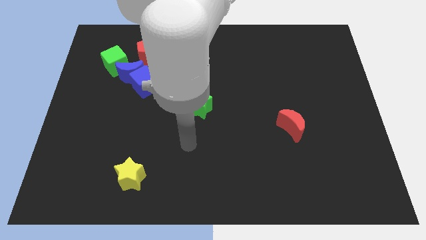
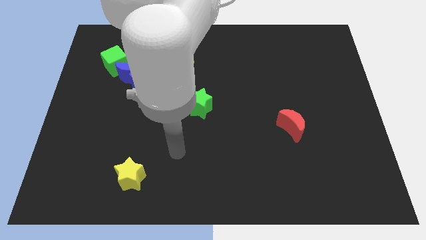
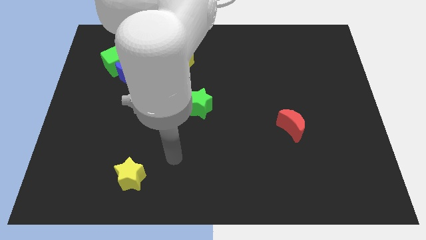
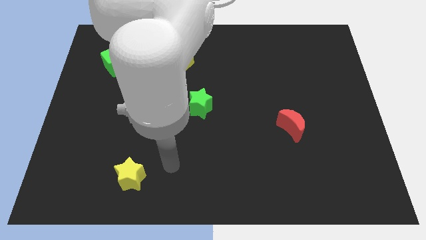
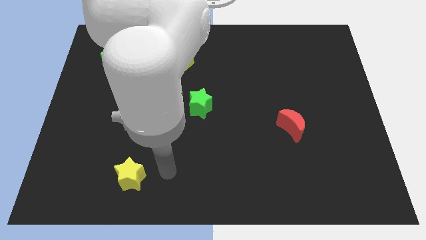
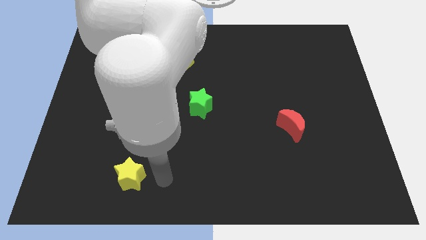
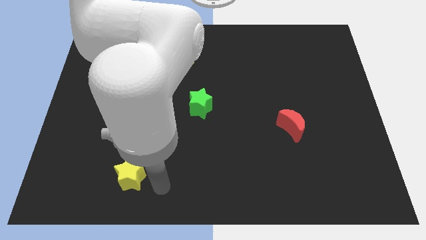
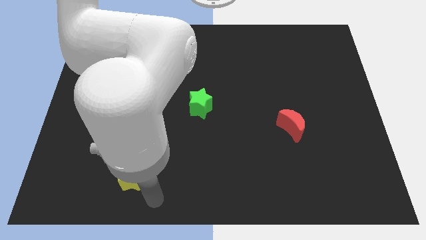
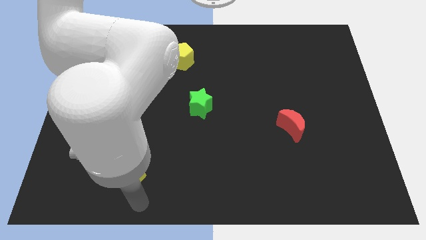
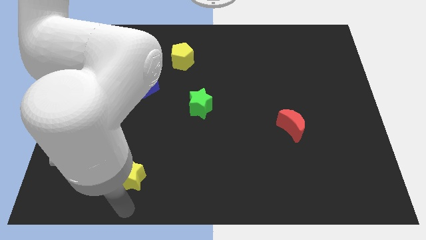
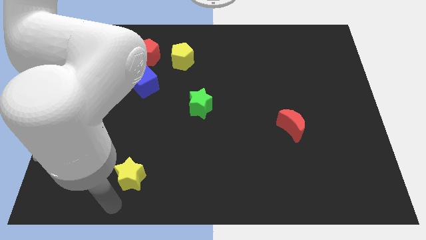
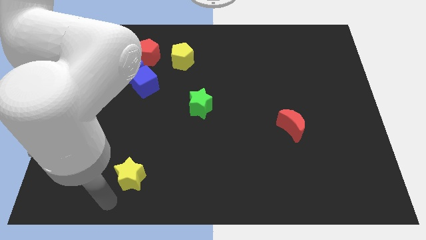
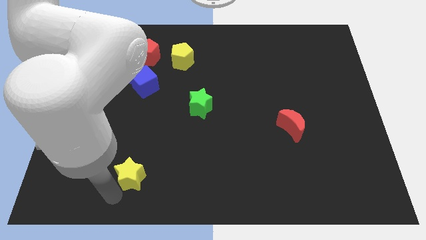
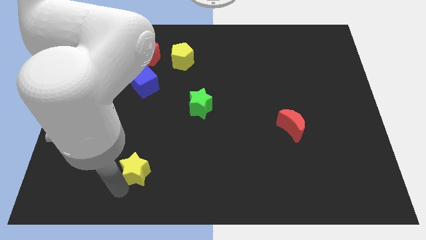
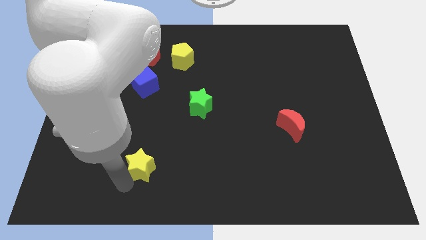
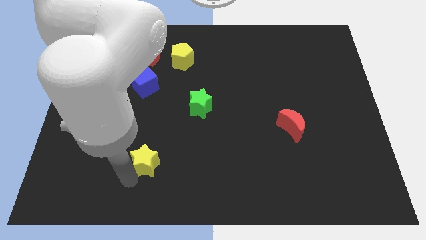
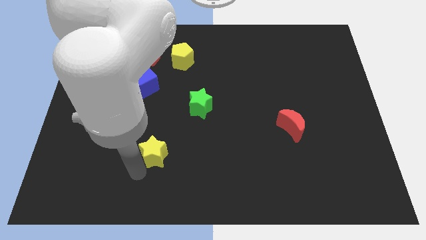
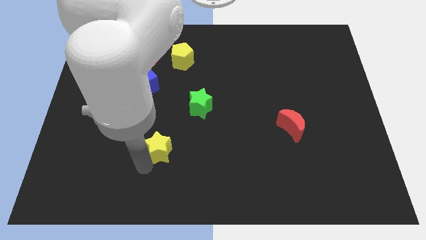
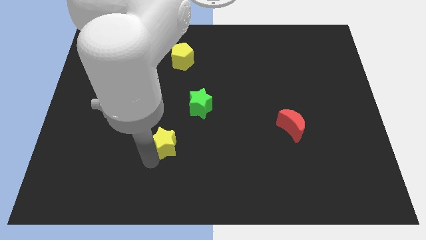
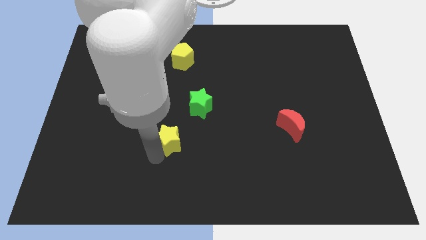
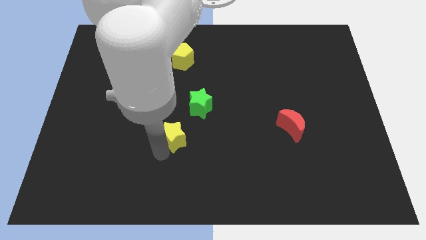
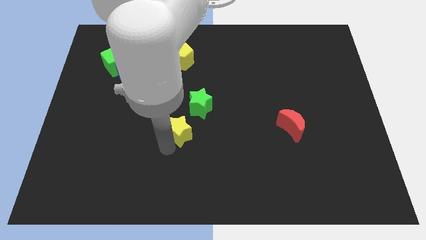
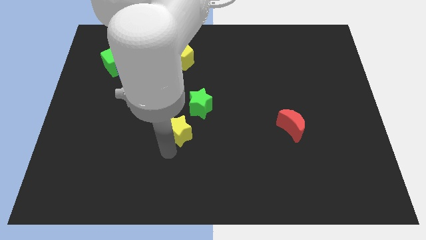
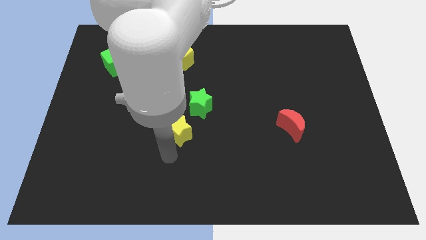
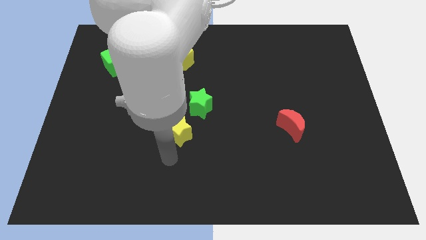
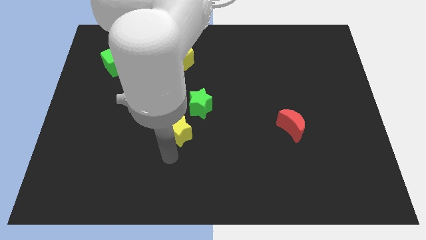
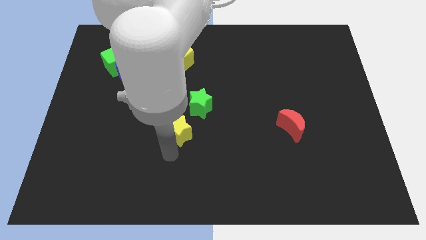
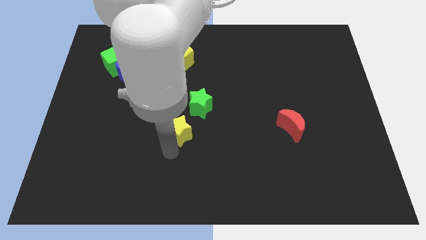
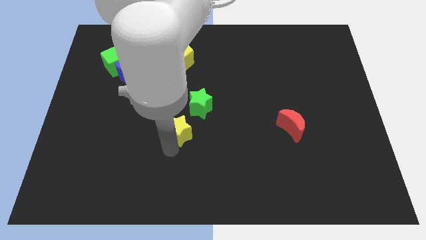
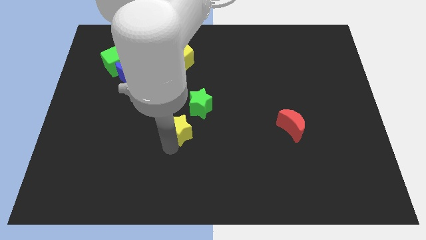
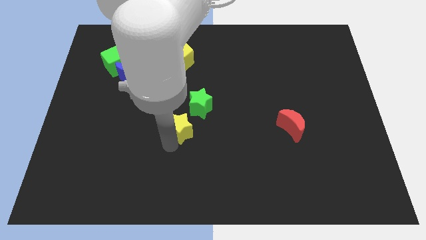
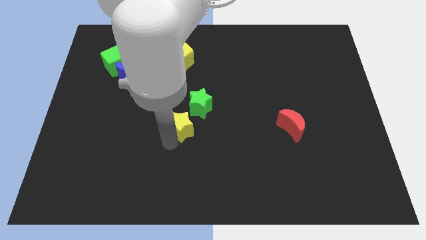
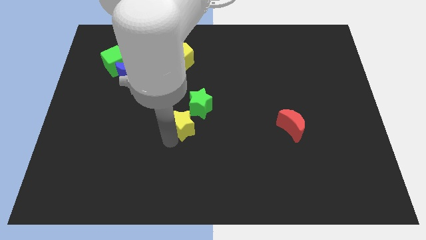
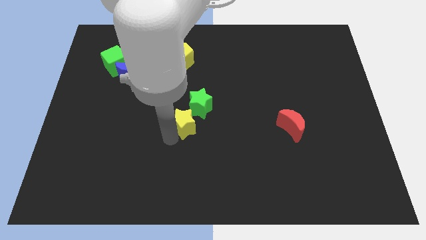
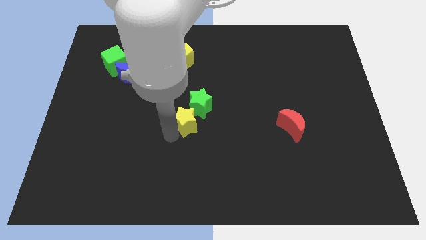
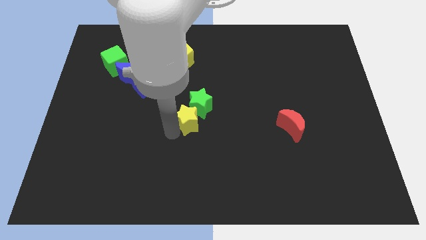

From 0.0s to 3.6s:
push the yellow star to the green star

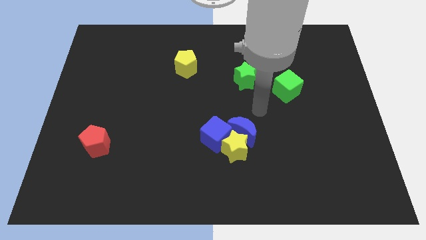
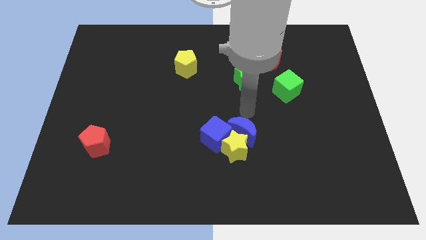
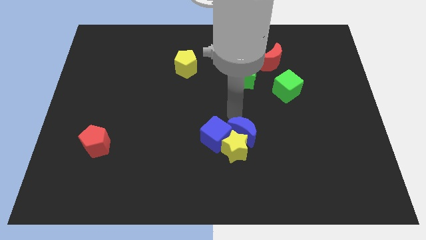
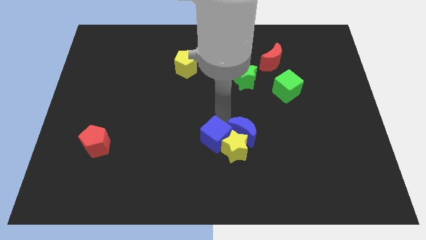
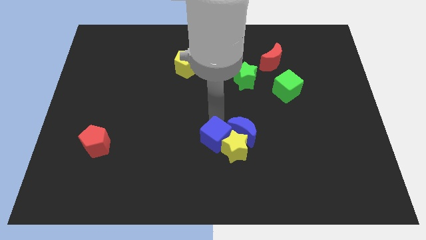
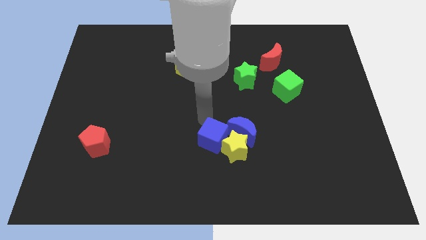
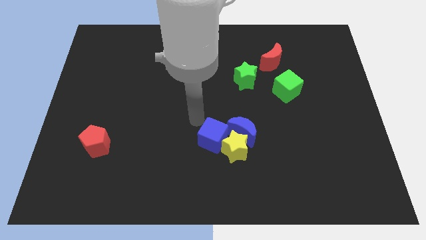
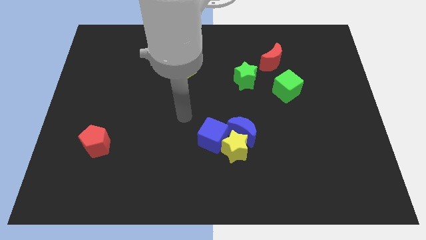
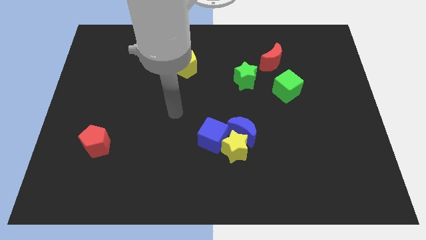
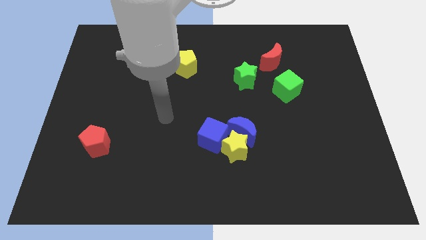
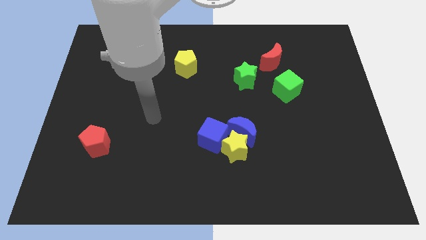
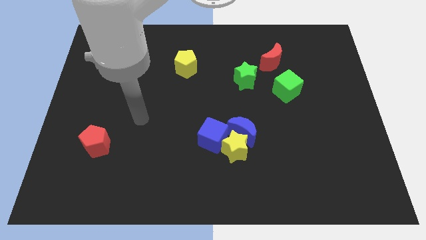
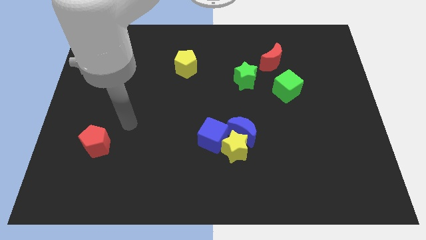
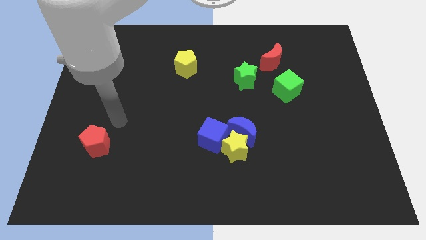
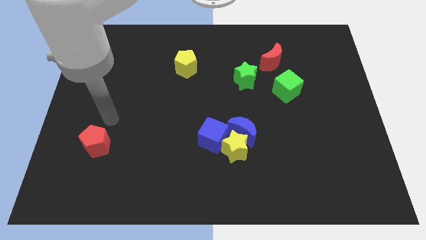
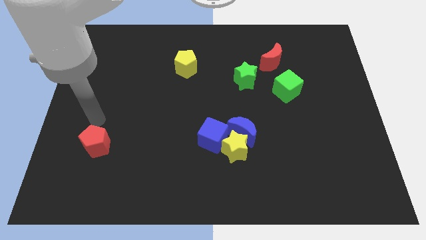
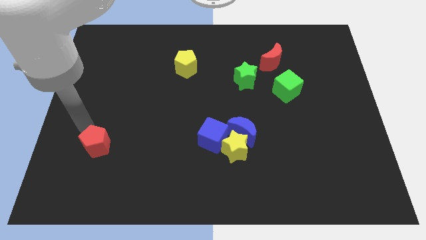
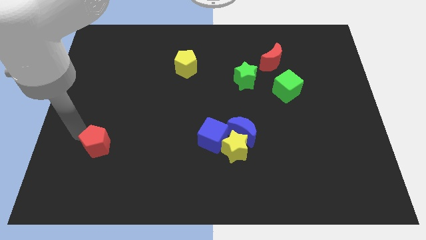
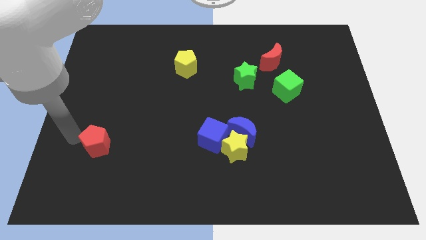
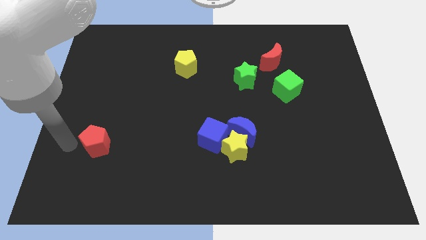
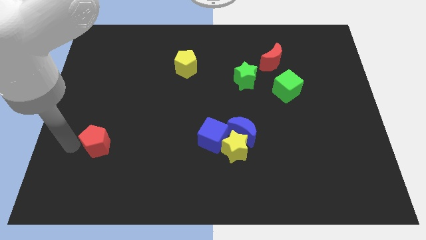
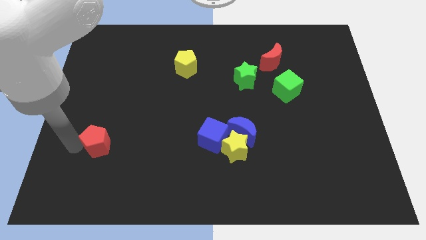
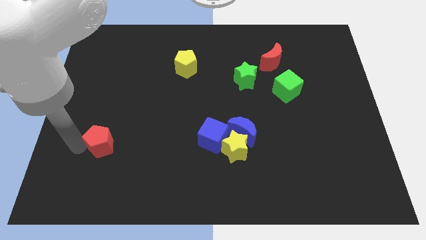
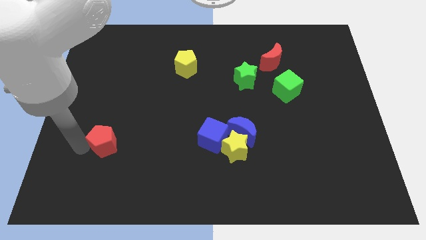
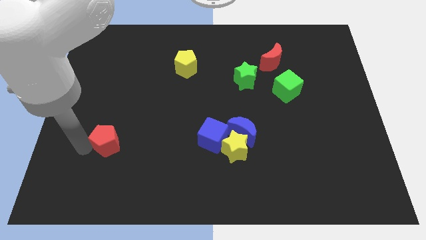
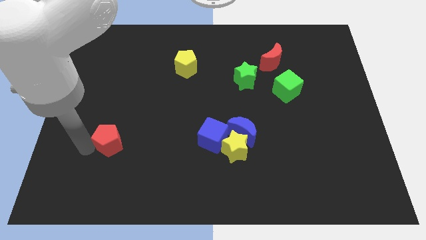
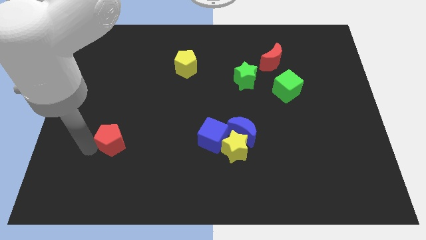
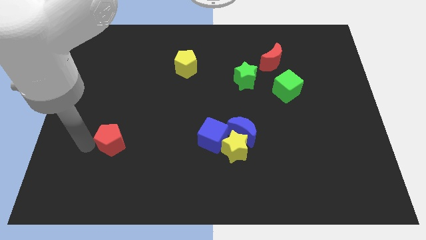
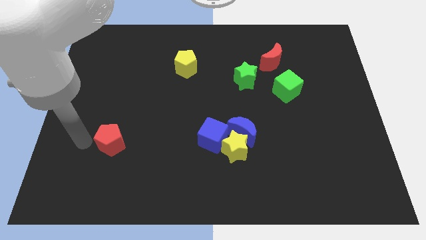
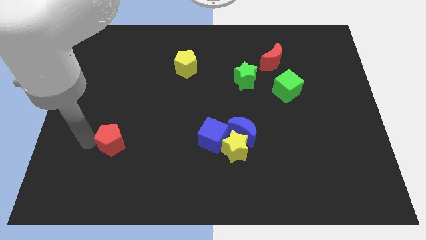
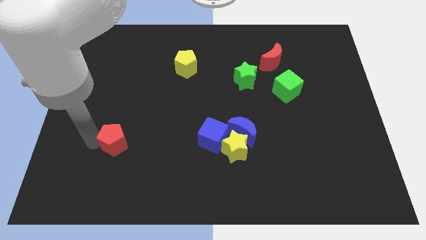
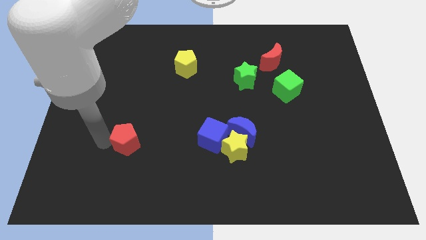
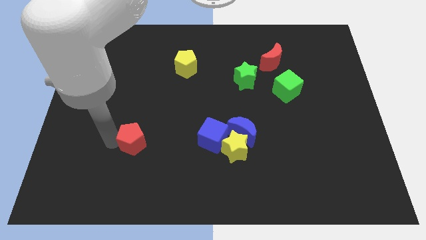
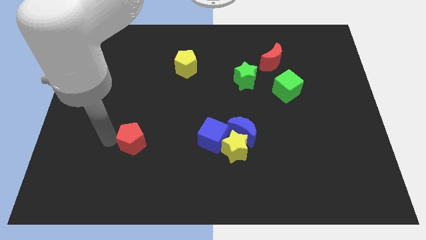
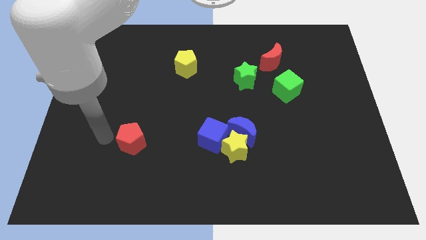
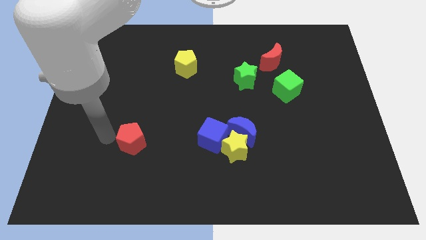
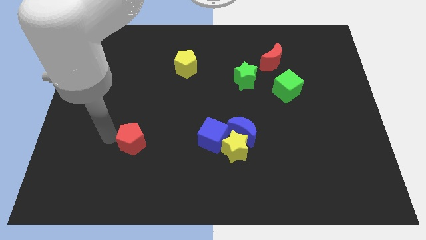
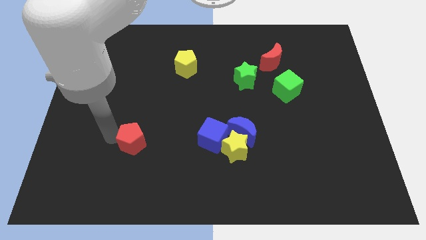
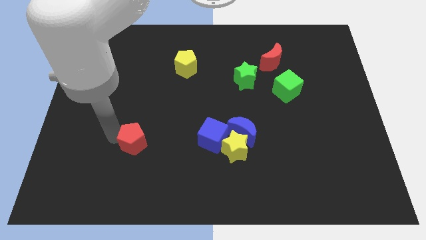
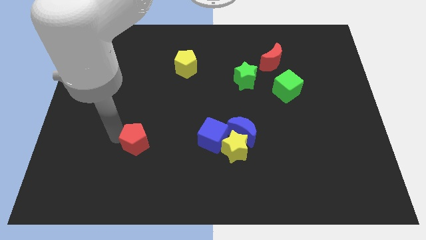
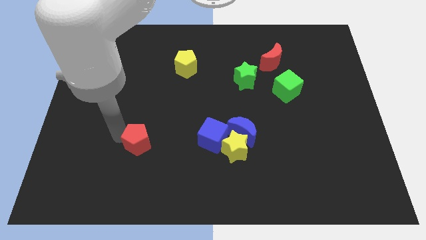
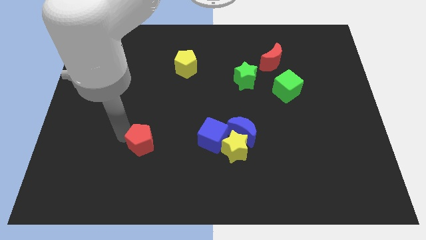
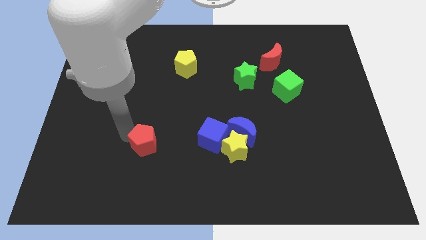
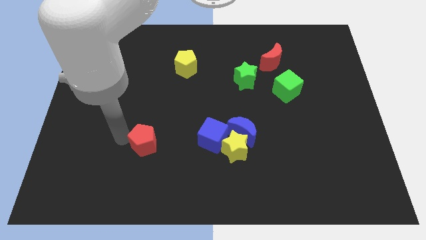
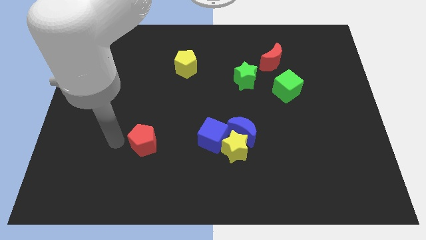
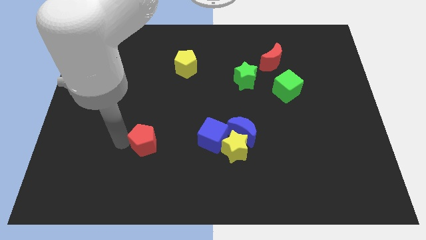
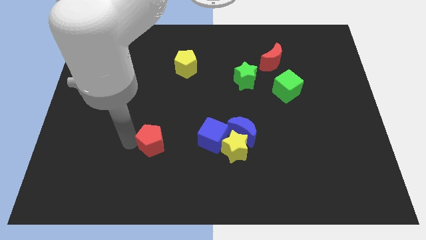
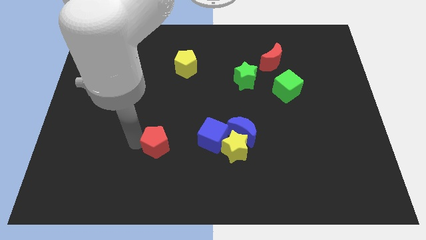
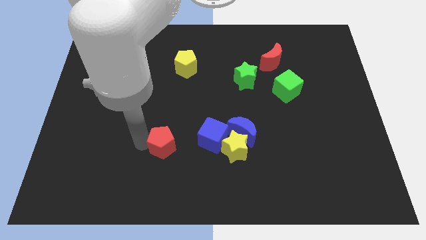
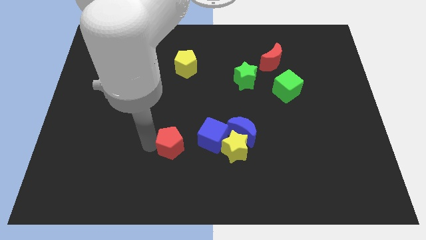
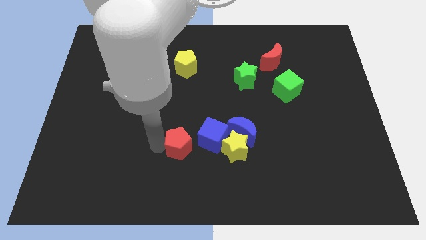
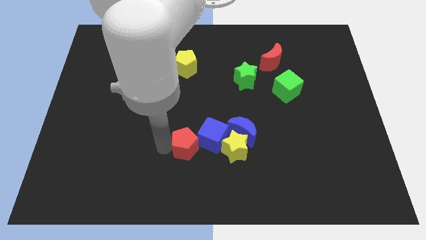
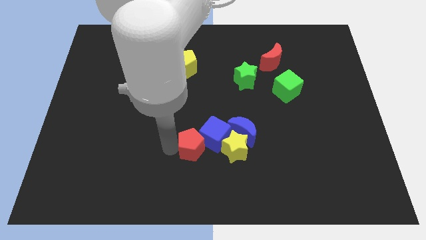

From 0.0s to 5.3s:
slide the red pentagon towards the blue cube
